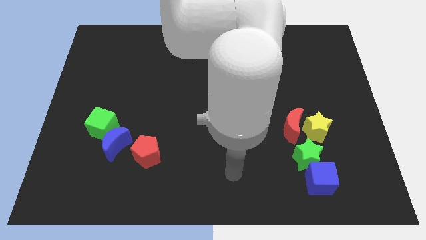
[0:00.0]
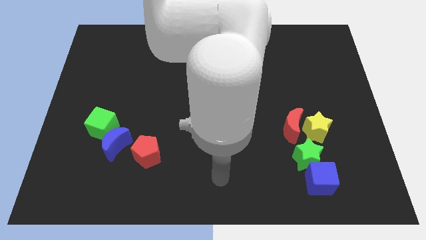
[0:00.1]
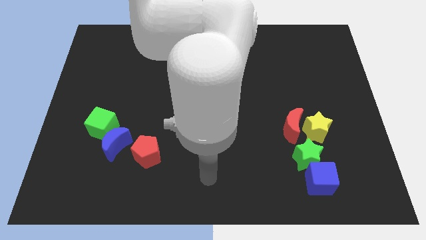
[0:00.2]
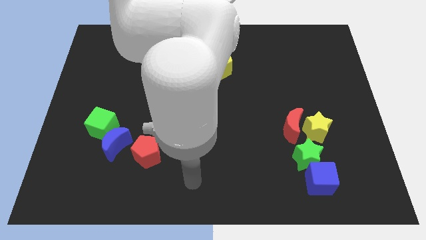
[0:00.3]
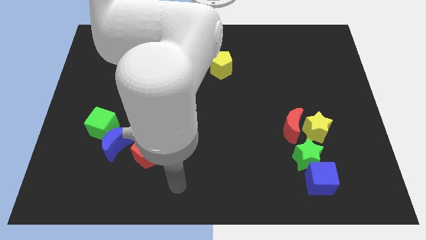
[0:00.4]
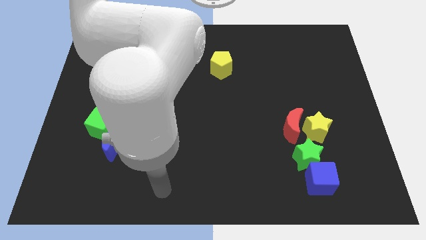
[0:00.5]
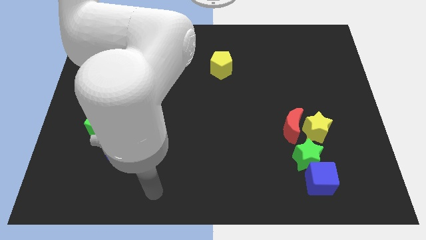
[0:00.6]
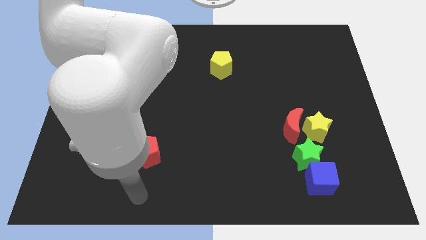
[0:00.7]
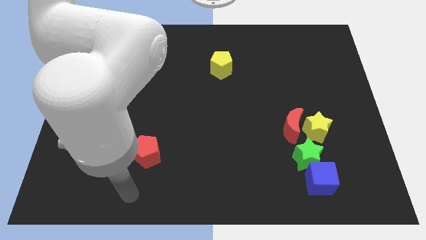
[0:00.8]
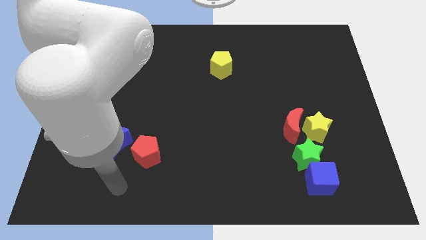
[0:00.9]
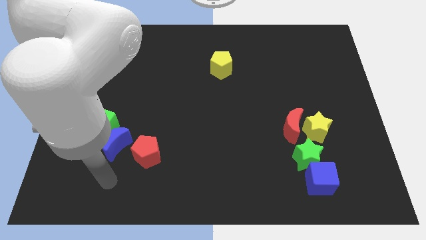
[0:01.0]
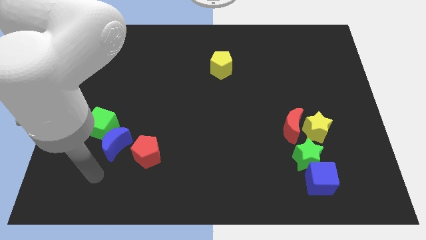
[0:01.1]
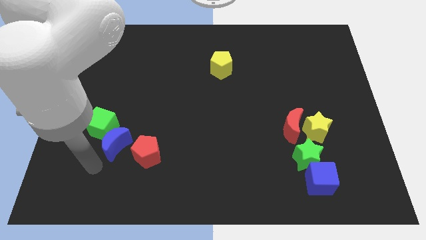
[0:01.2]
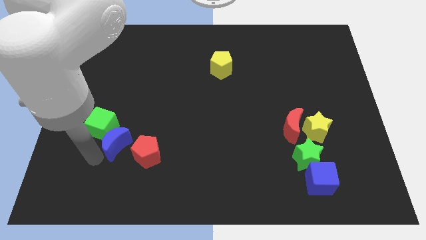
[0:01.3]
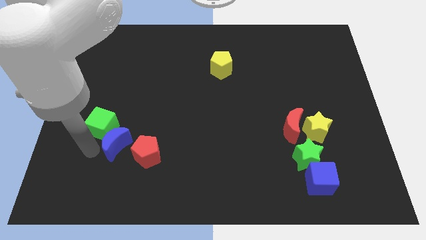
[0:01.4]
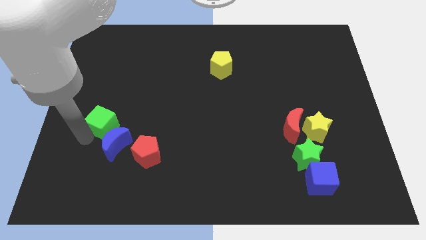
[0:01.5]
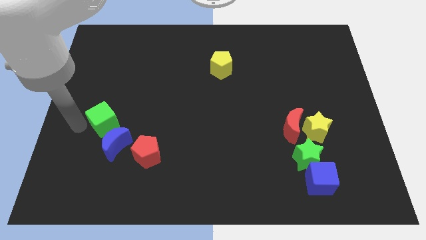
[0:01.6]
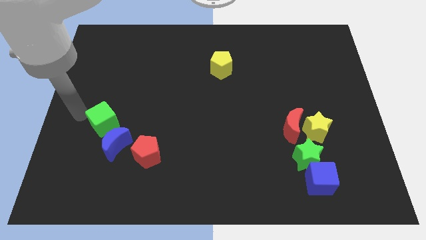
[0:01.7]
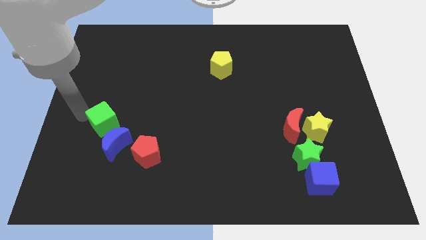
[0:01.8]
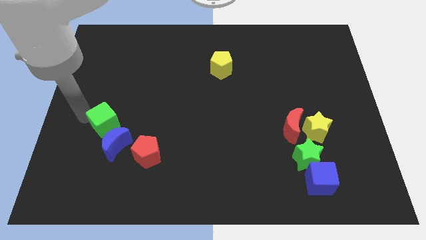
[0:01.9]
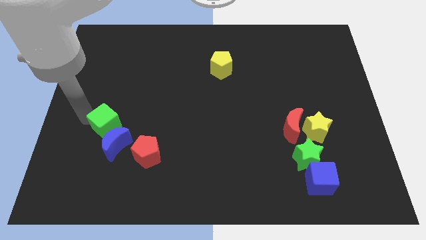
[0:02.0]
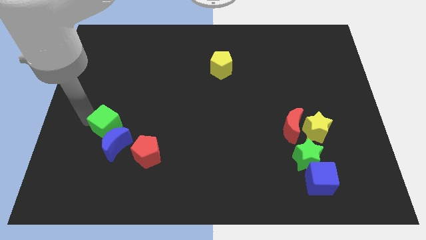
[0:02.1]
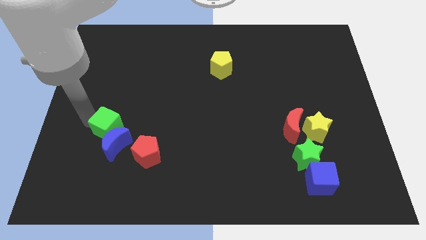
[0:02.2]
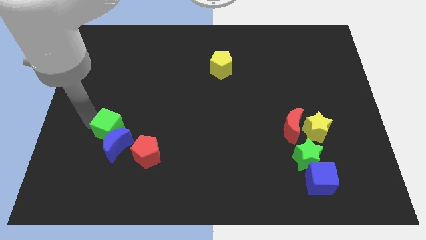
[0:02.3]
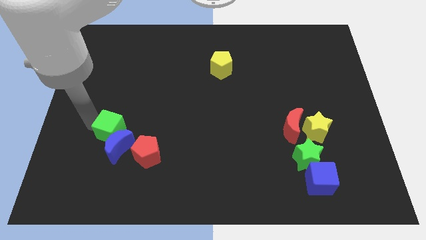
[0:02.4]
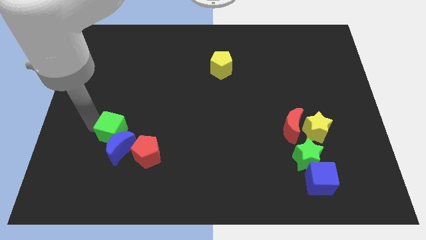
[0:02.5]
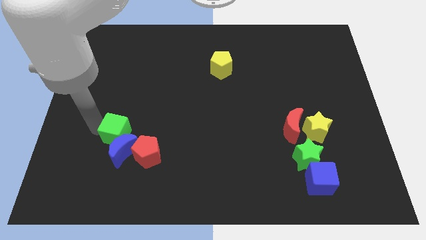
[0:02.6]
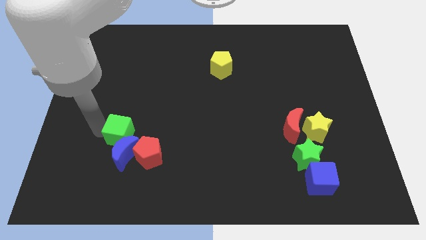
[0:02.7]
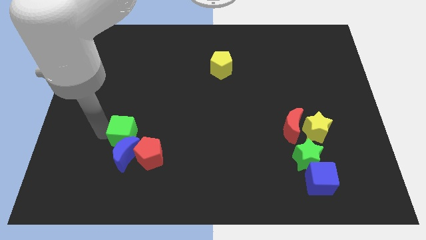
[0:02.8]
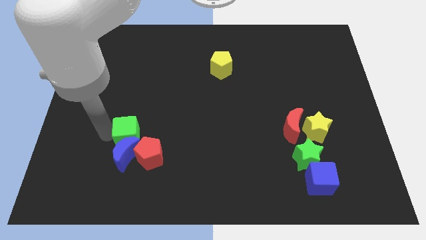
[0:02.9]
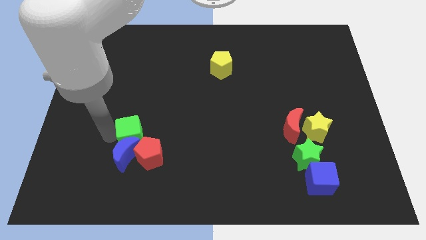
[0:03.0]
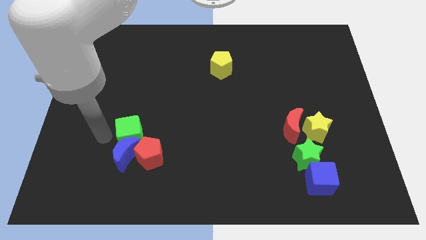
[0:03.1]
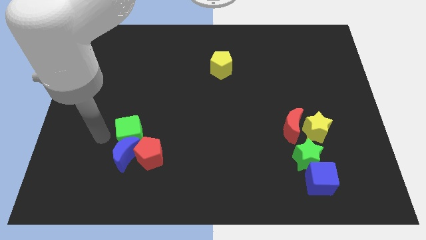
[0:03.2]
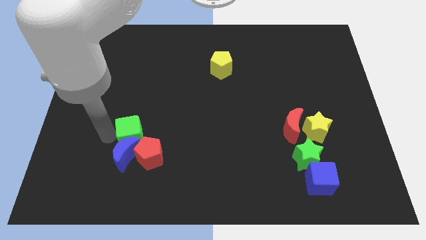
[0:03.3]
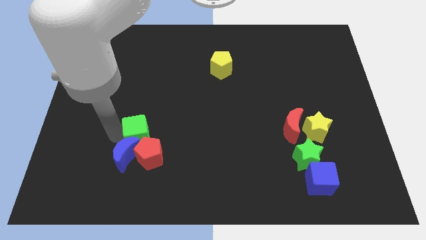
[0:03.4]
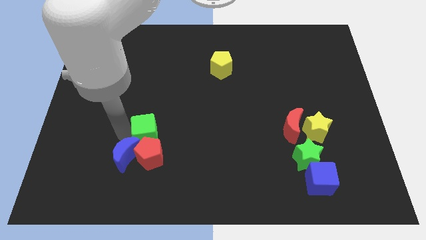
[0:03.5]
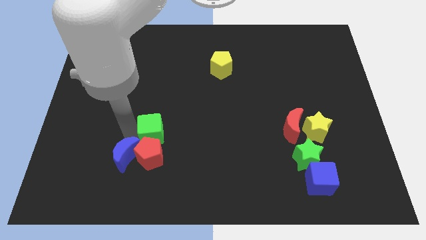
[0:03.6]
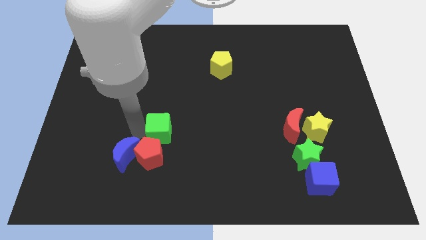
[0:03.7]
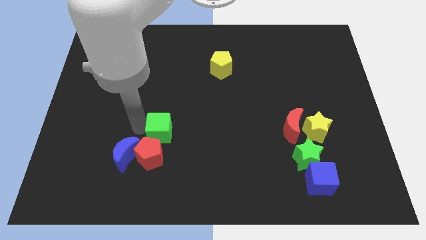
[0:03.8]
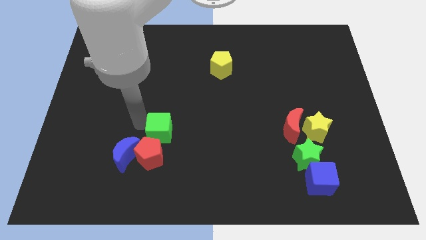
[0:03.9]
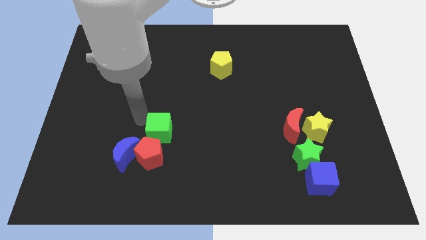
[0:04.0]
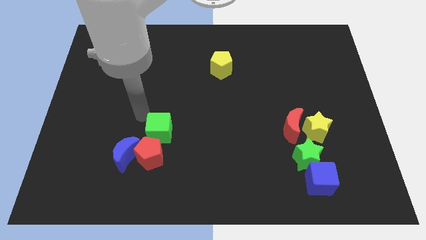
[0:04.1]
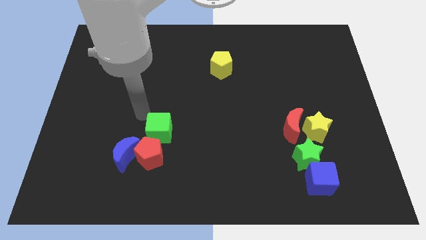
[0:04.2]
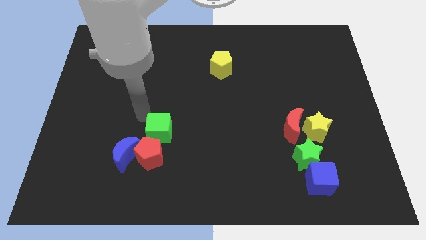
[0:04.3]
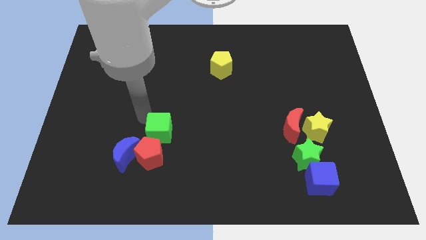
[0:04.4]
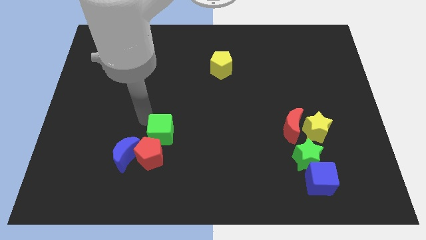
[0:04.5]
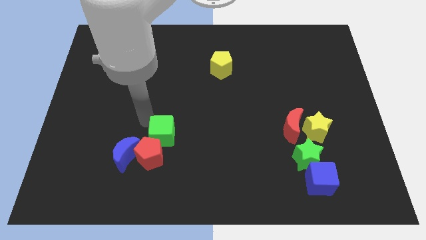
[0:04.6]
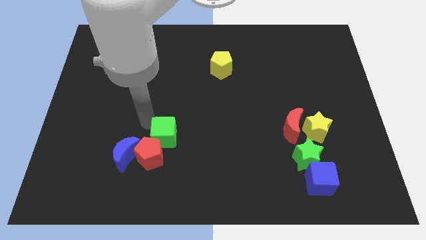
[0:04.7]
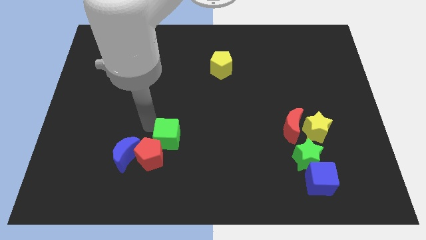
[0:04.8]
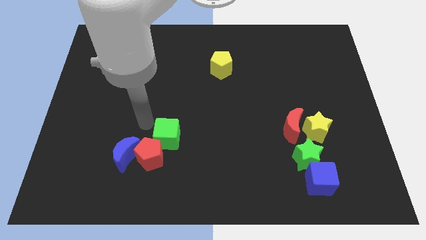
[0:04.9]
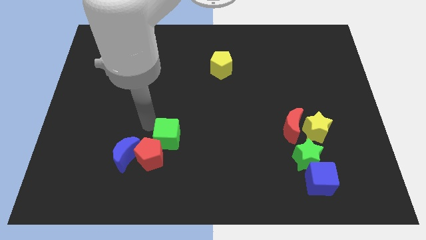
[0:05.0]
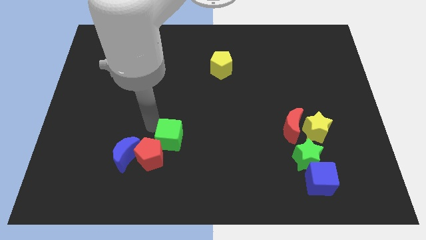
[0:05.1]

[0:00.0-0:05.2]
push the green cube to the right side of the red pentagon

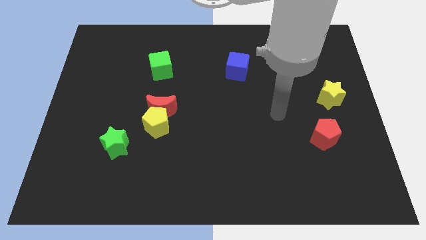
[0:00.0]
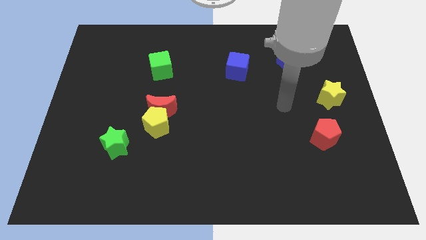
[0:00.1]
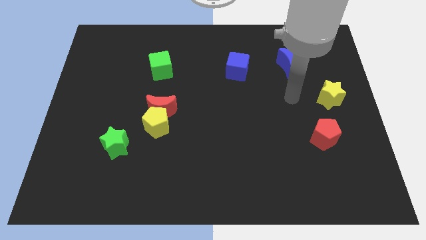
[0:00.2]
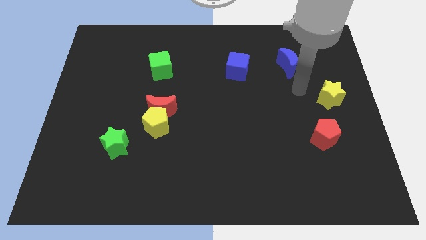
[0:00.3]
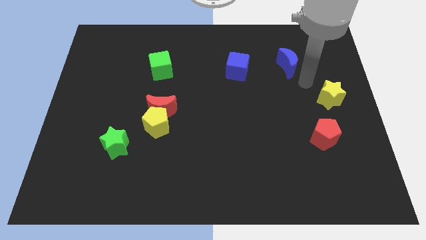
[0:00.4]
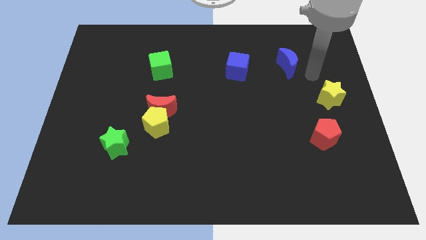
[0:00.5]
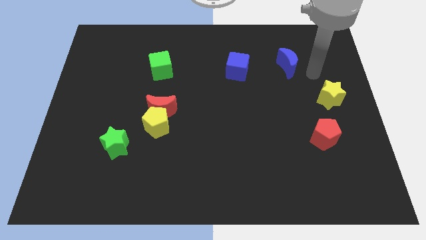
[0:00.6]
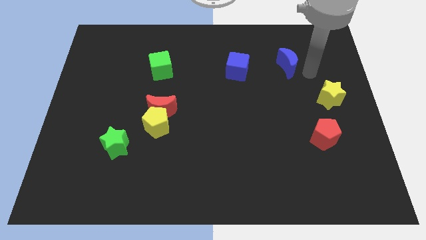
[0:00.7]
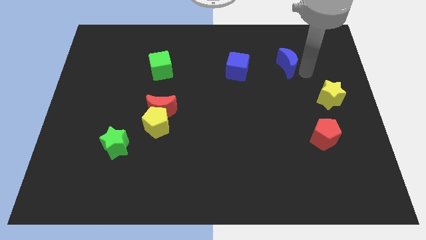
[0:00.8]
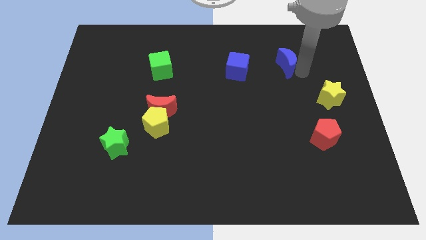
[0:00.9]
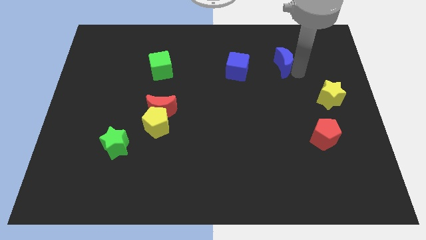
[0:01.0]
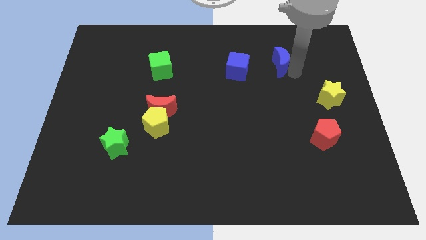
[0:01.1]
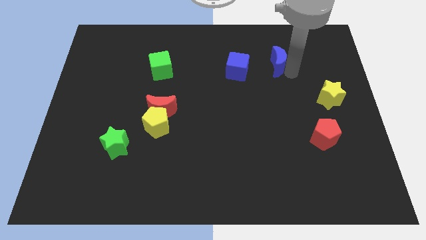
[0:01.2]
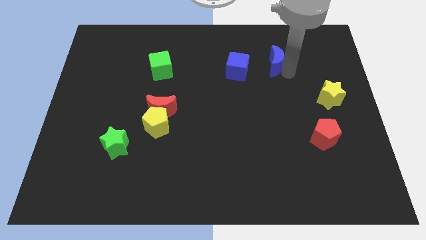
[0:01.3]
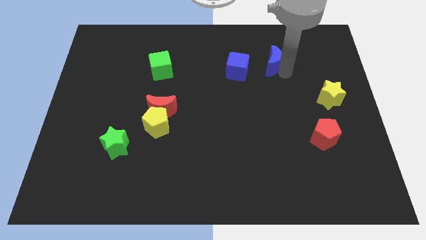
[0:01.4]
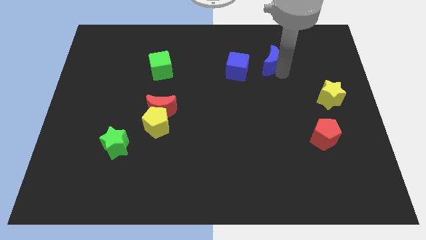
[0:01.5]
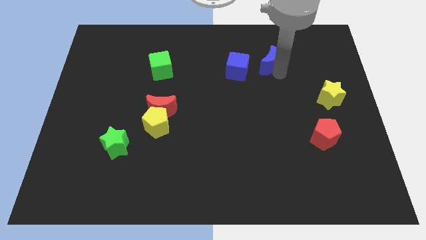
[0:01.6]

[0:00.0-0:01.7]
push the blue moon to the top right of the blue cube

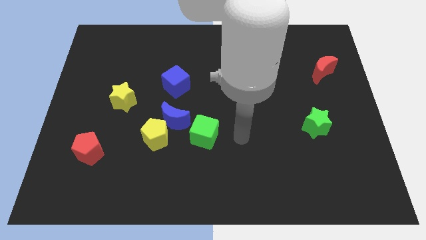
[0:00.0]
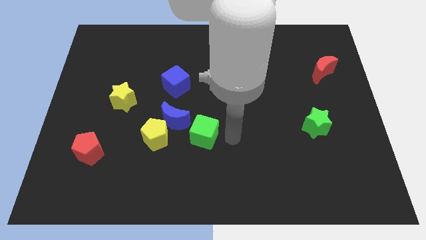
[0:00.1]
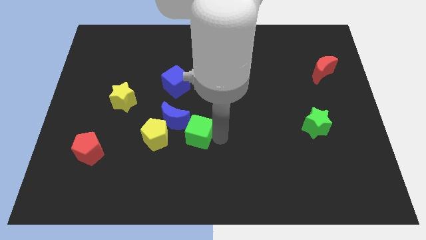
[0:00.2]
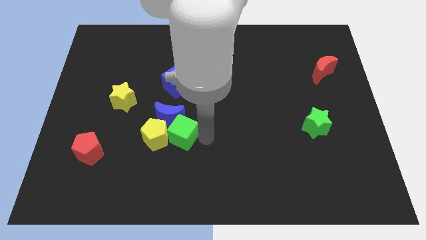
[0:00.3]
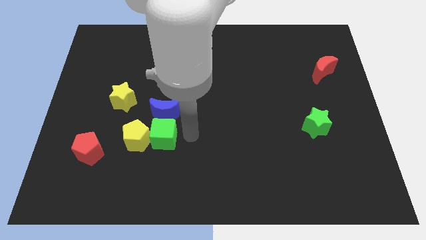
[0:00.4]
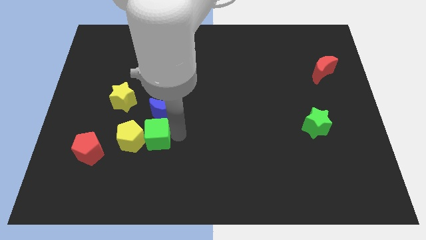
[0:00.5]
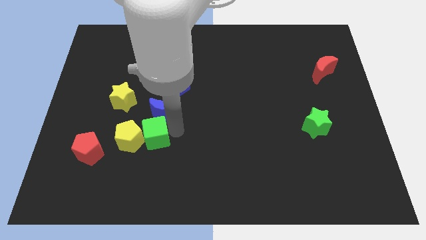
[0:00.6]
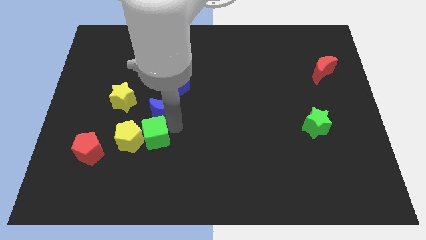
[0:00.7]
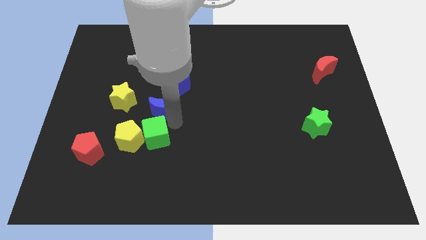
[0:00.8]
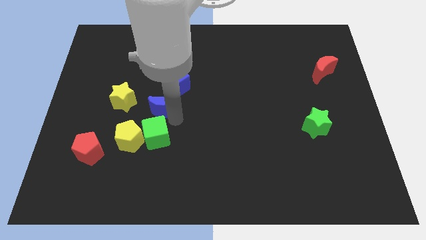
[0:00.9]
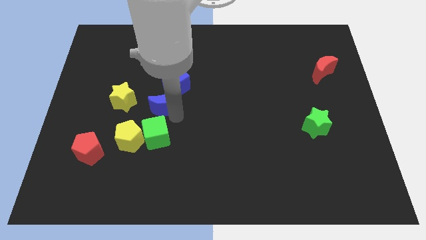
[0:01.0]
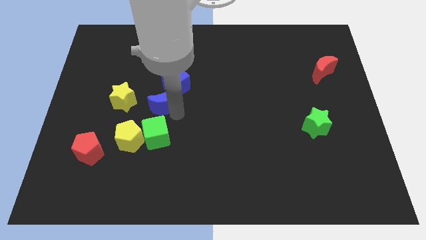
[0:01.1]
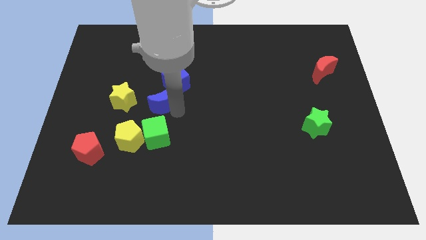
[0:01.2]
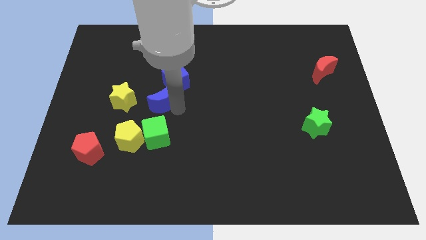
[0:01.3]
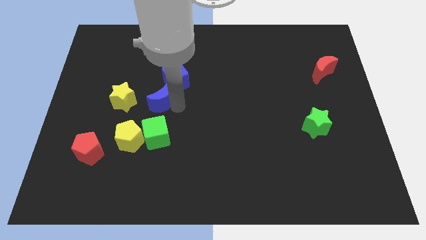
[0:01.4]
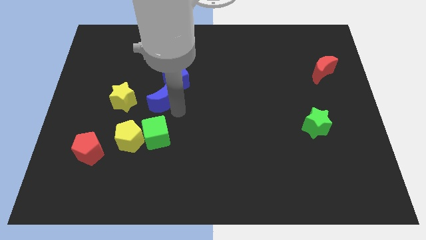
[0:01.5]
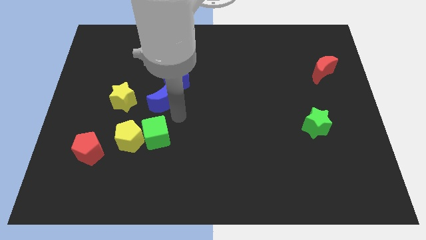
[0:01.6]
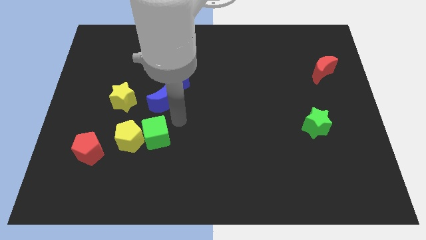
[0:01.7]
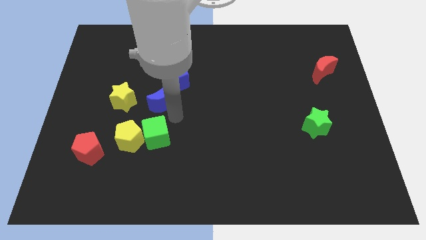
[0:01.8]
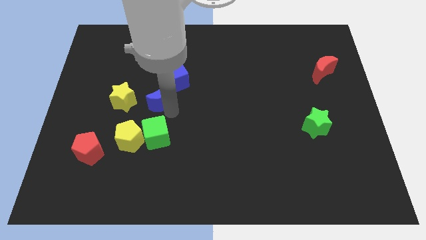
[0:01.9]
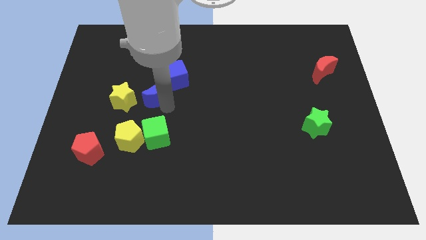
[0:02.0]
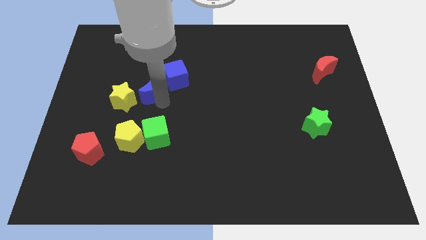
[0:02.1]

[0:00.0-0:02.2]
push the blue moon to the top right side of the yellow star
